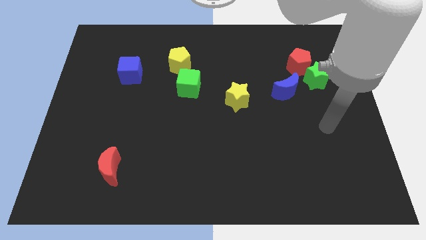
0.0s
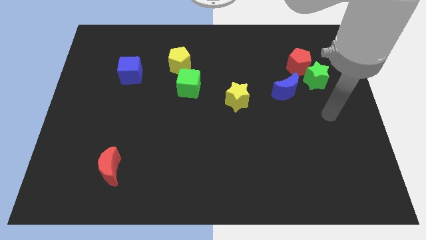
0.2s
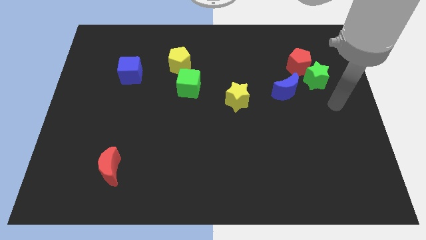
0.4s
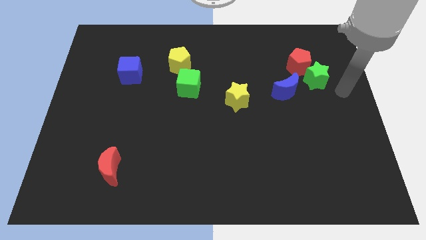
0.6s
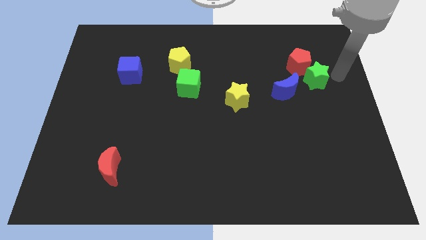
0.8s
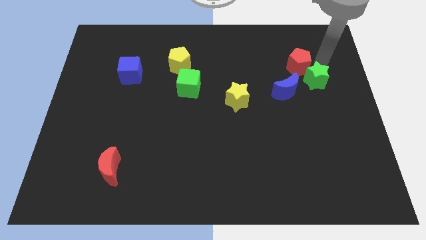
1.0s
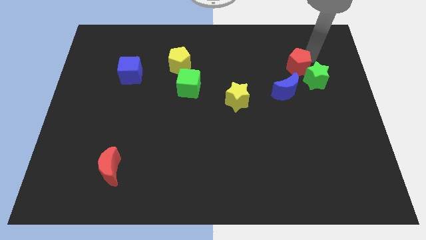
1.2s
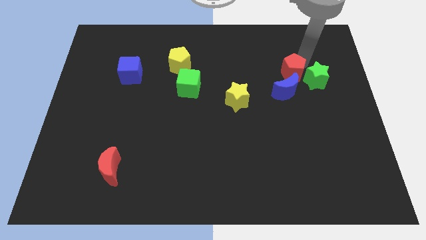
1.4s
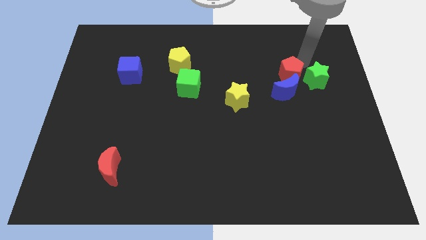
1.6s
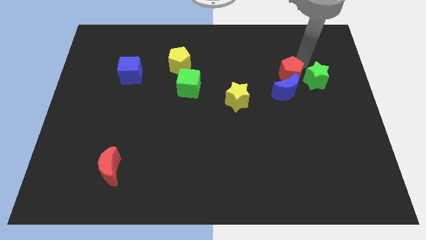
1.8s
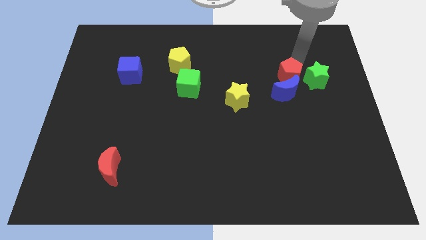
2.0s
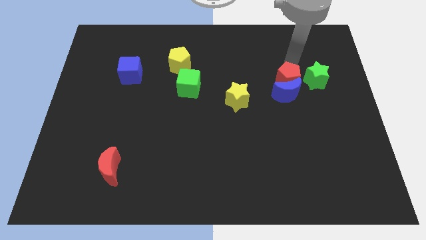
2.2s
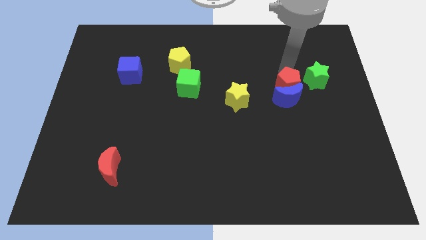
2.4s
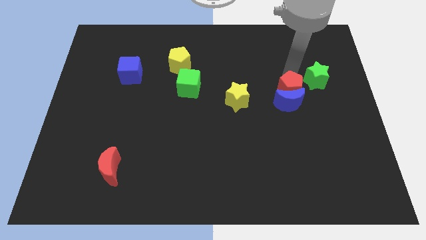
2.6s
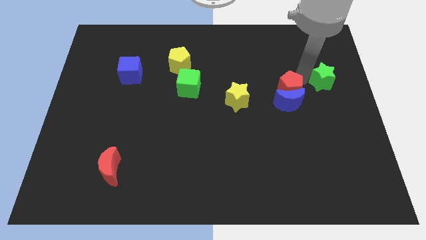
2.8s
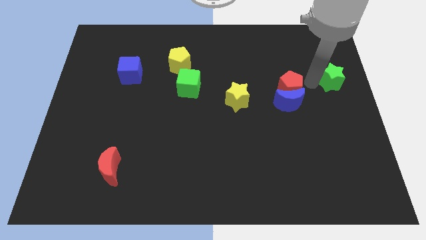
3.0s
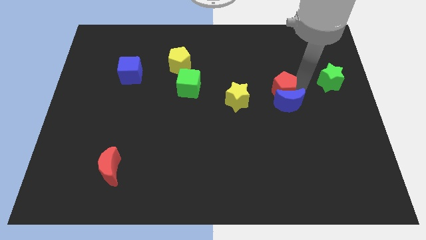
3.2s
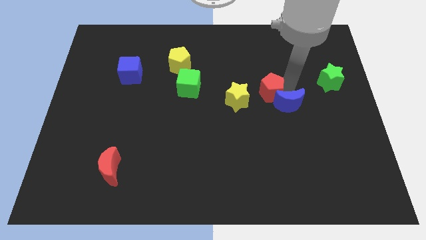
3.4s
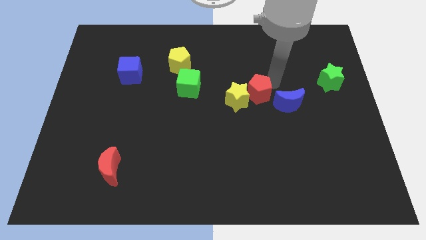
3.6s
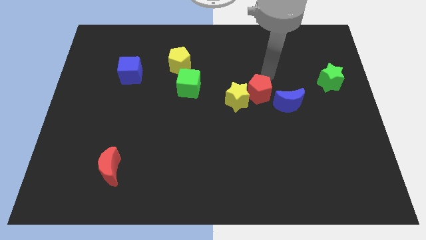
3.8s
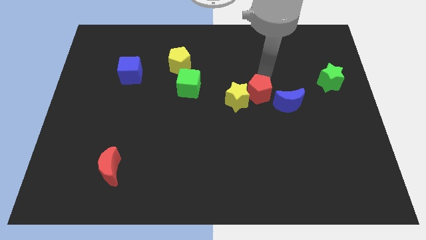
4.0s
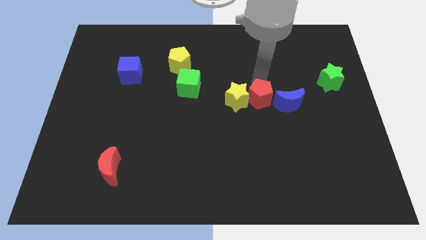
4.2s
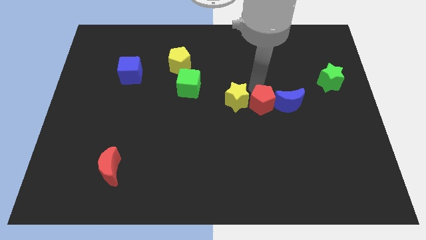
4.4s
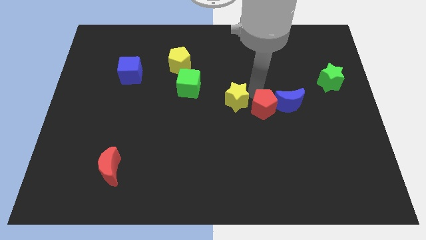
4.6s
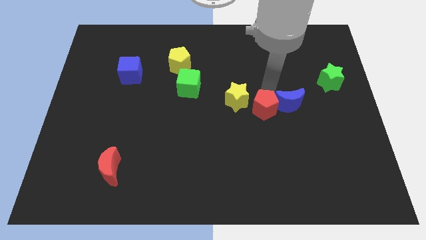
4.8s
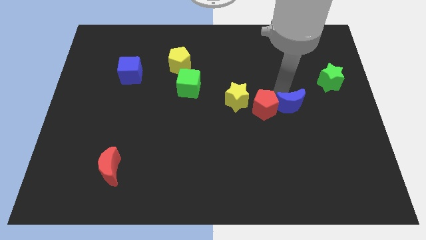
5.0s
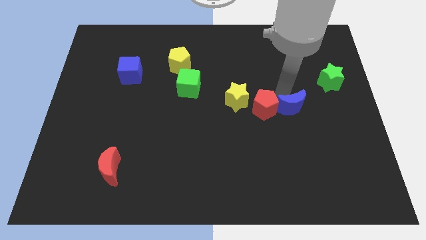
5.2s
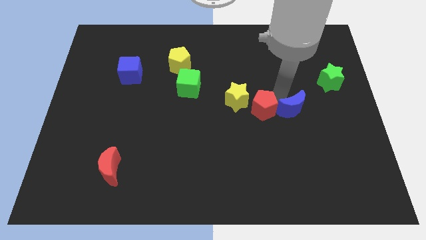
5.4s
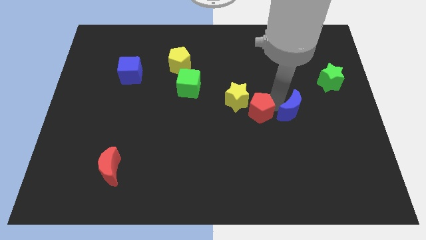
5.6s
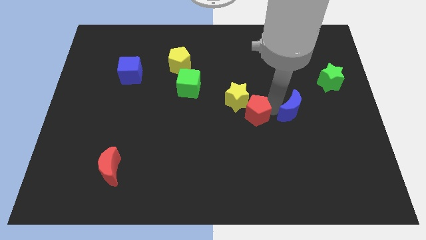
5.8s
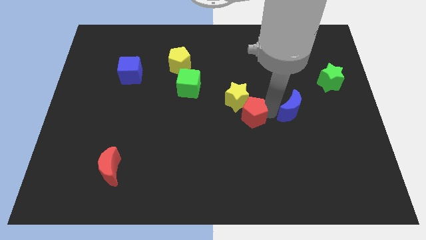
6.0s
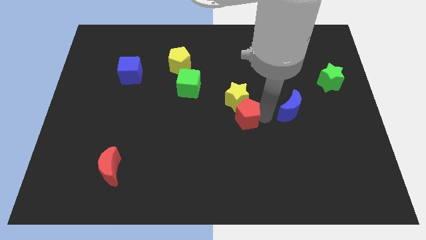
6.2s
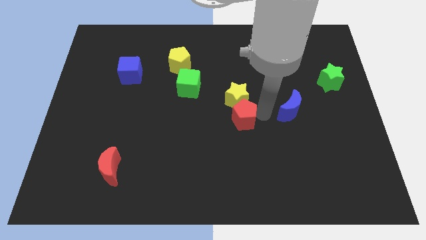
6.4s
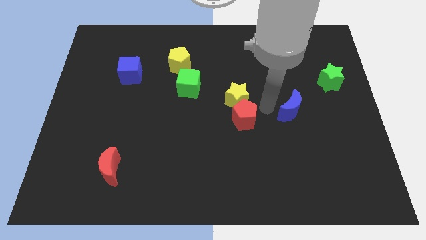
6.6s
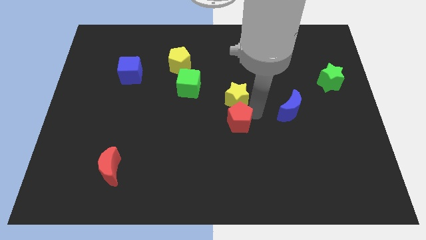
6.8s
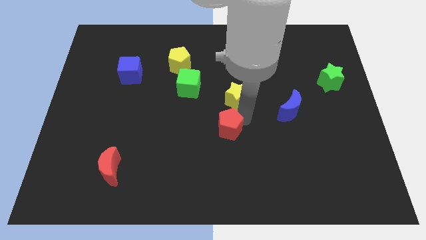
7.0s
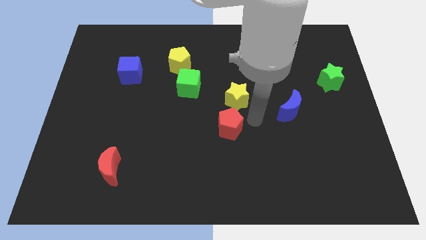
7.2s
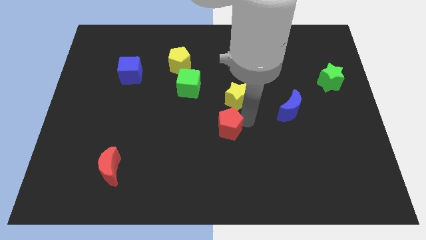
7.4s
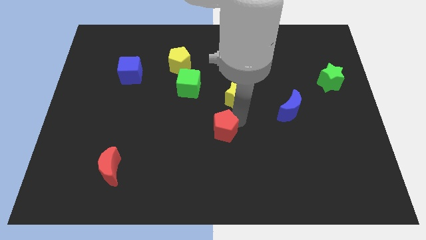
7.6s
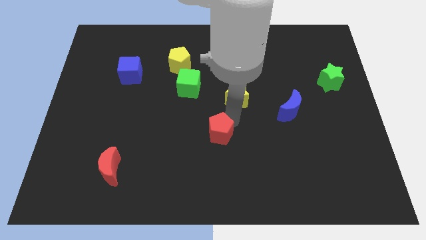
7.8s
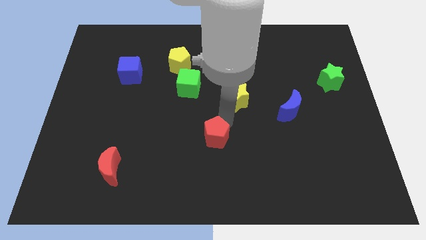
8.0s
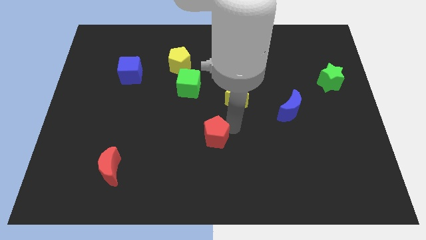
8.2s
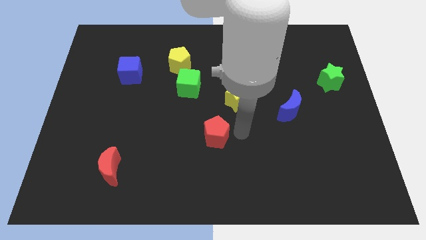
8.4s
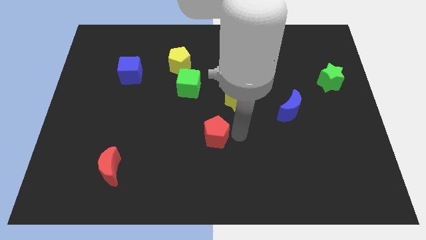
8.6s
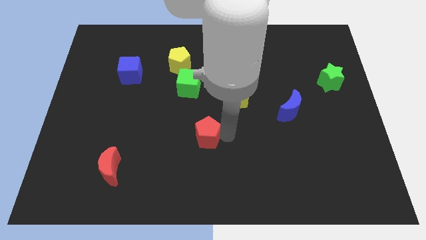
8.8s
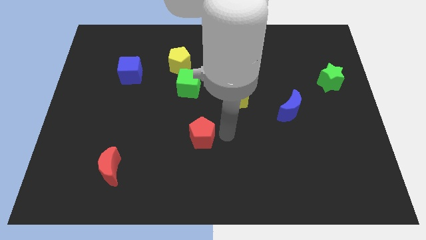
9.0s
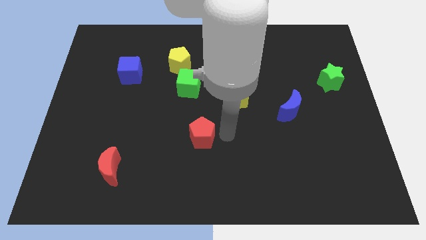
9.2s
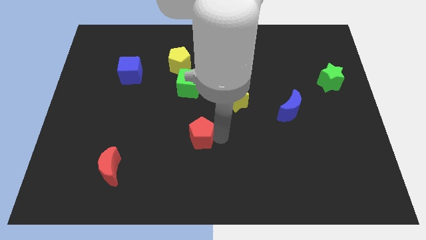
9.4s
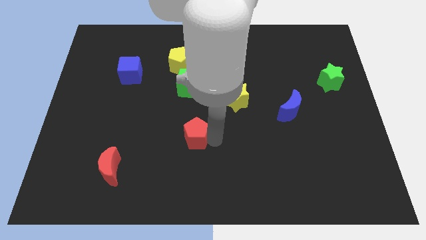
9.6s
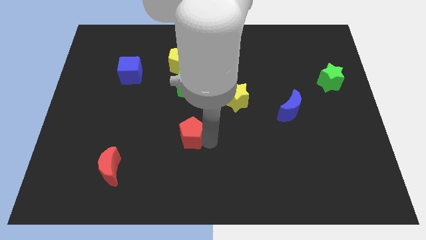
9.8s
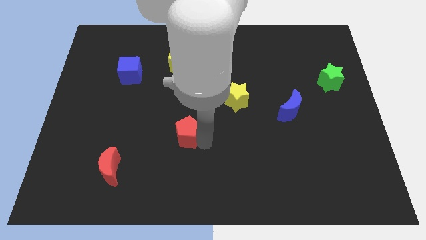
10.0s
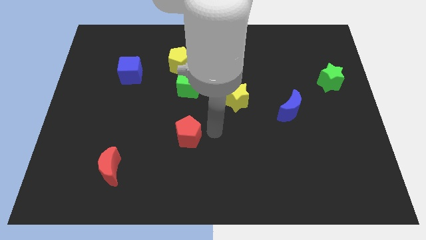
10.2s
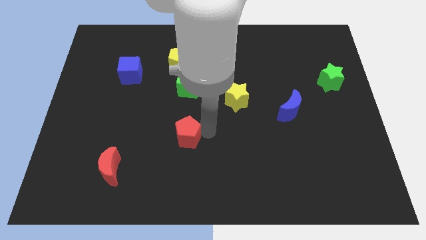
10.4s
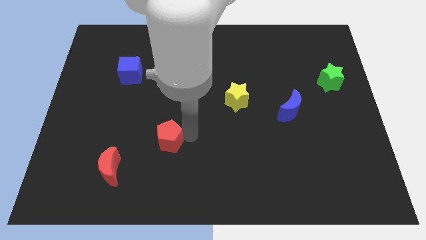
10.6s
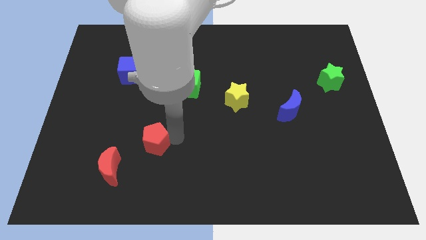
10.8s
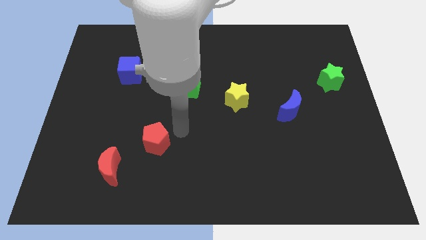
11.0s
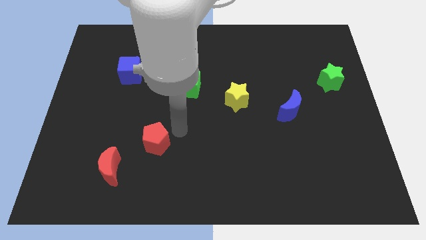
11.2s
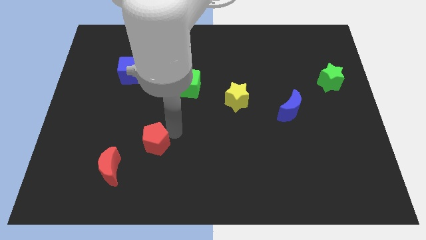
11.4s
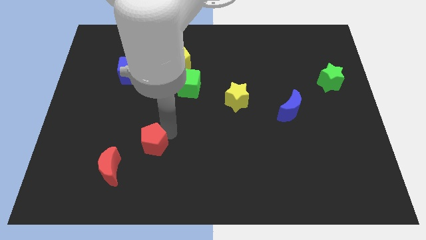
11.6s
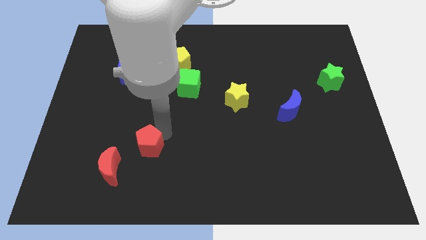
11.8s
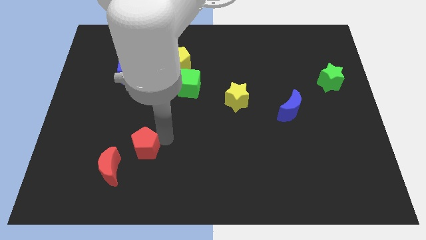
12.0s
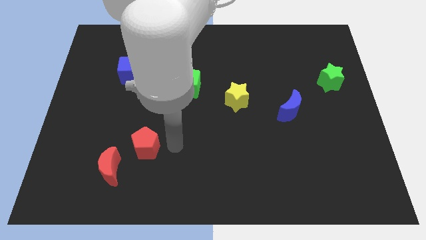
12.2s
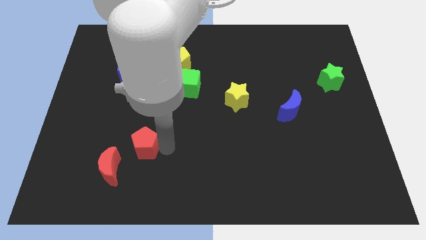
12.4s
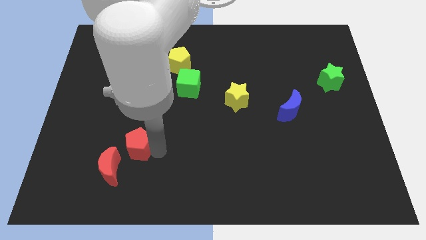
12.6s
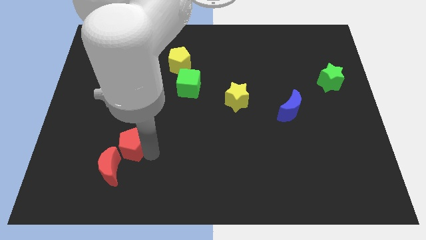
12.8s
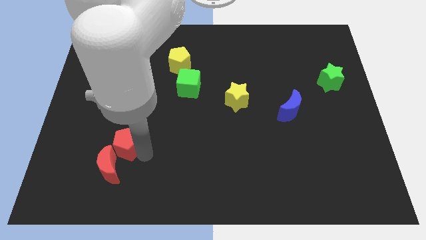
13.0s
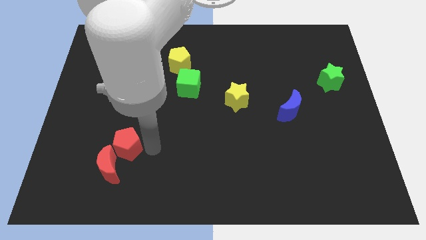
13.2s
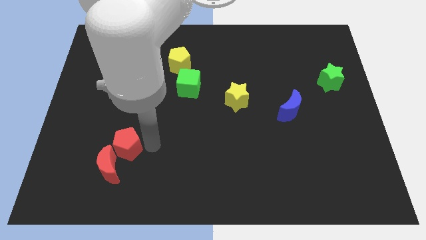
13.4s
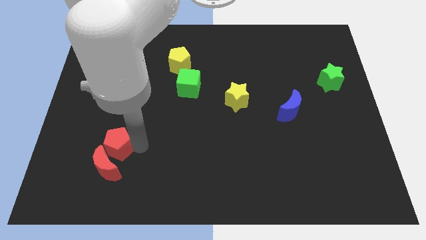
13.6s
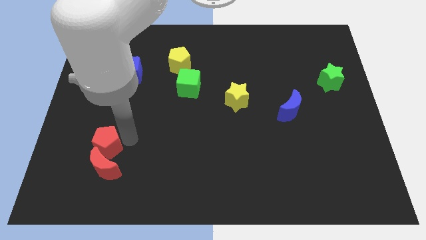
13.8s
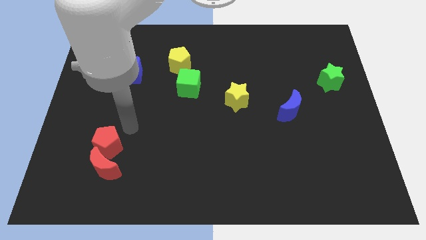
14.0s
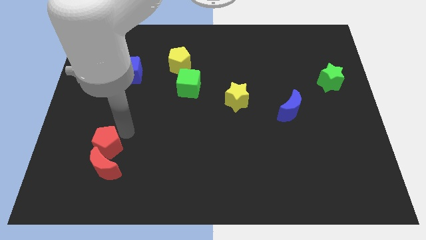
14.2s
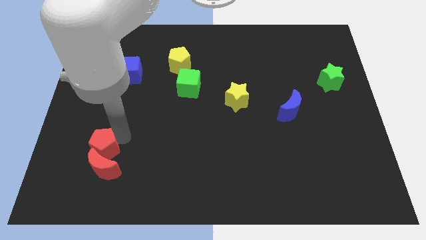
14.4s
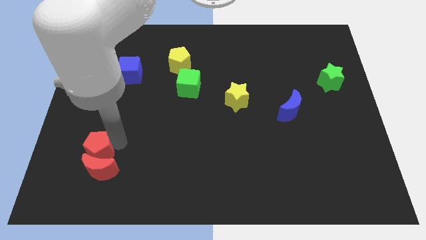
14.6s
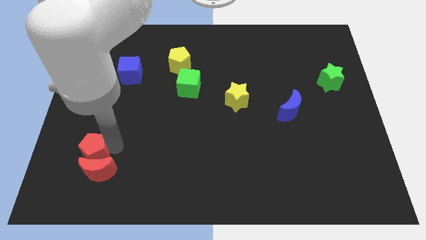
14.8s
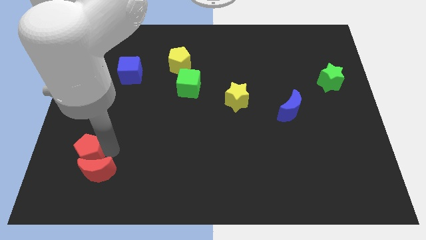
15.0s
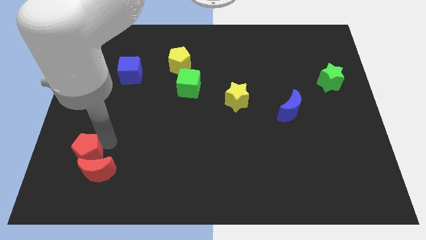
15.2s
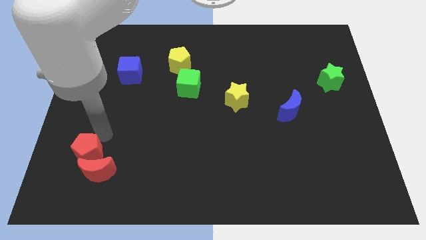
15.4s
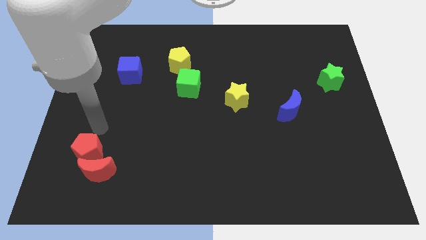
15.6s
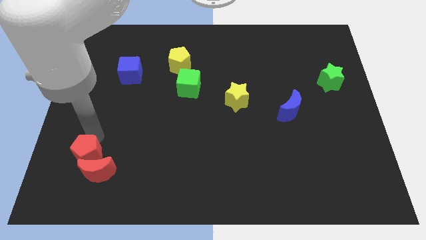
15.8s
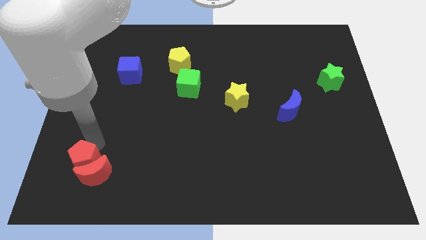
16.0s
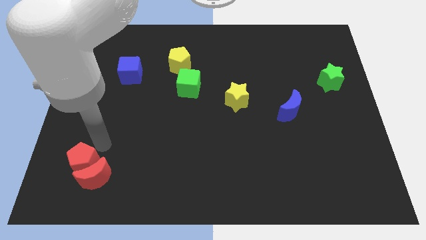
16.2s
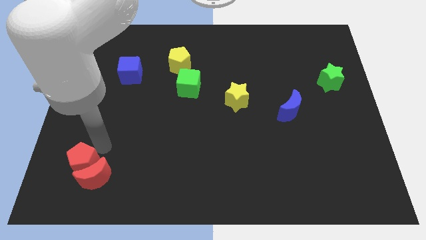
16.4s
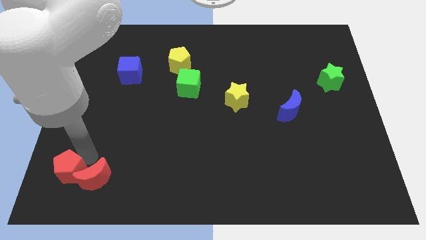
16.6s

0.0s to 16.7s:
push the red pentagon to the bottom left
